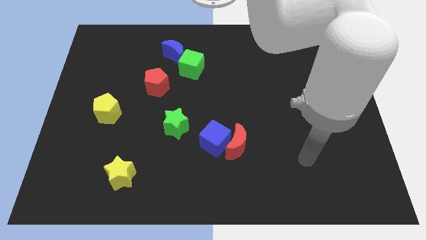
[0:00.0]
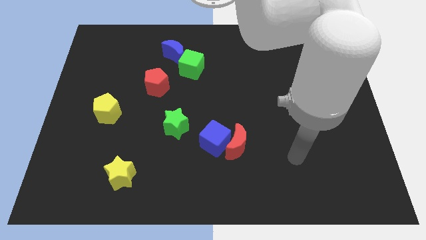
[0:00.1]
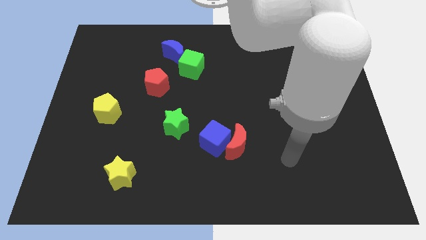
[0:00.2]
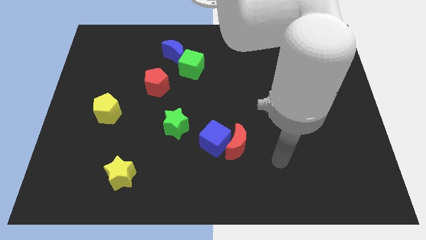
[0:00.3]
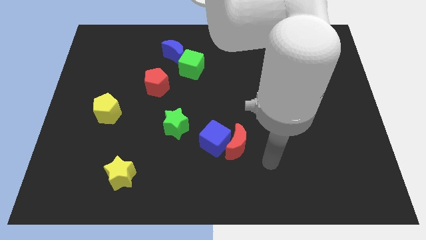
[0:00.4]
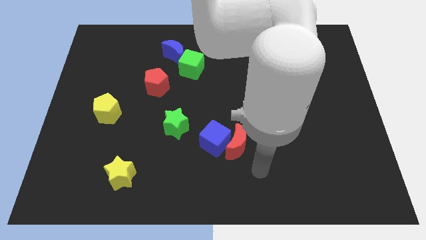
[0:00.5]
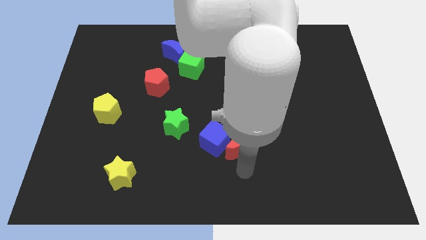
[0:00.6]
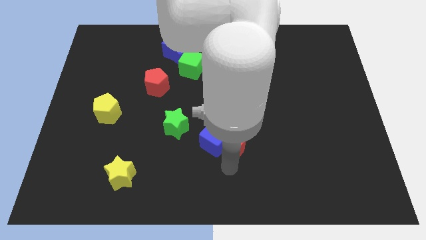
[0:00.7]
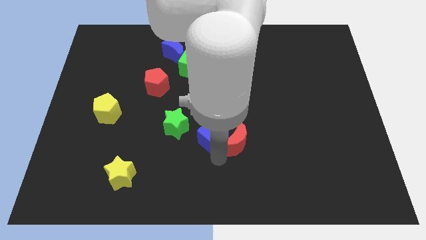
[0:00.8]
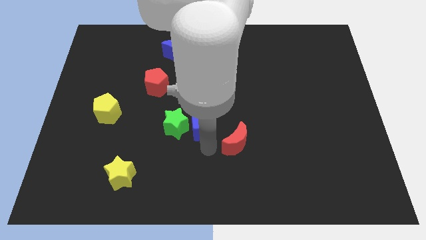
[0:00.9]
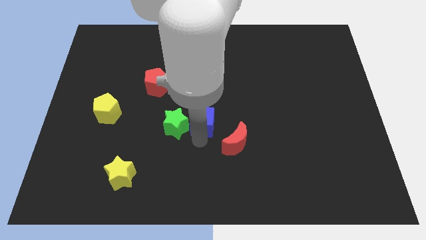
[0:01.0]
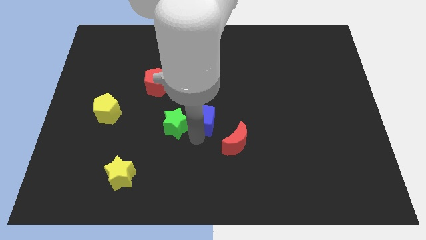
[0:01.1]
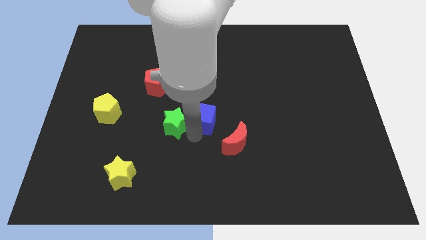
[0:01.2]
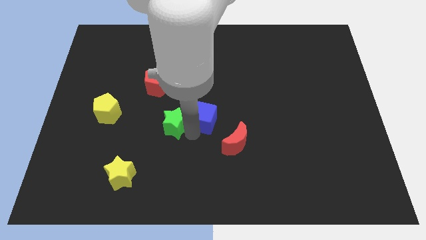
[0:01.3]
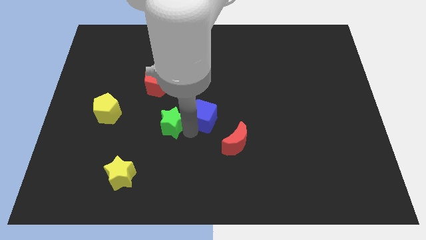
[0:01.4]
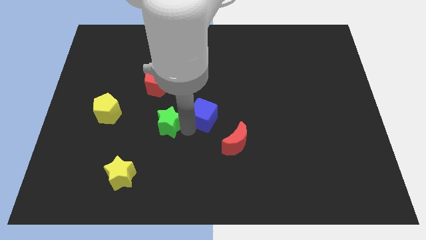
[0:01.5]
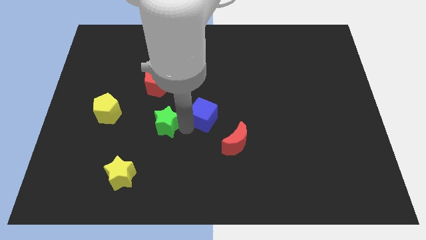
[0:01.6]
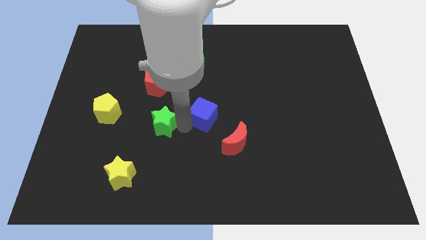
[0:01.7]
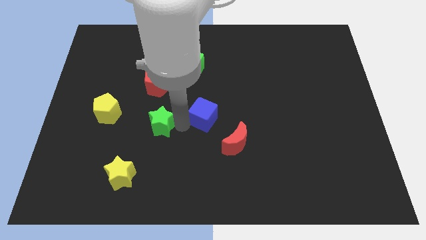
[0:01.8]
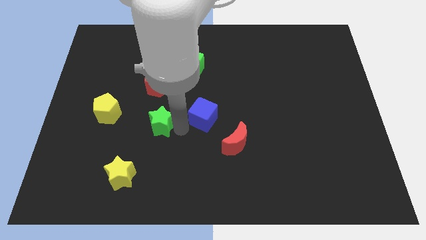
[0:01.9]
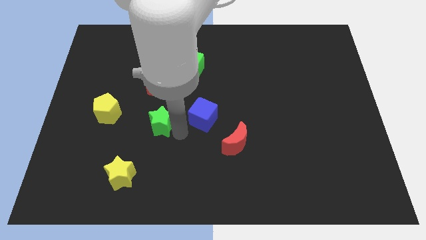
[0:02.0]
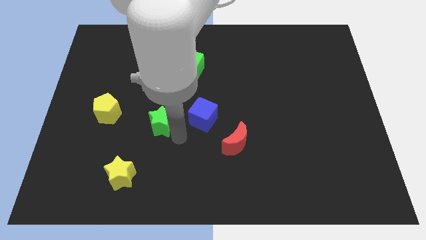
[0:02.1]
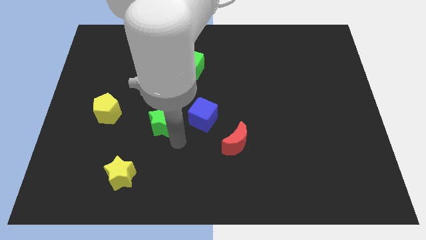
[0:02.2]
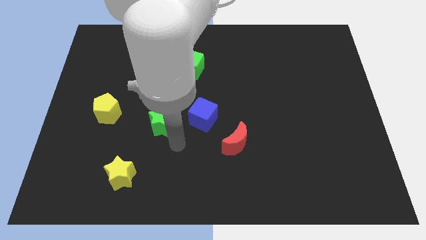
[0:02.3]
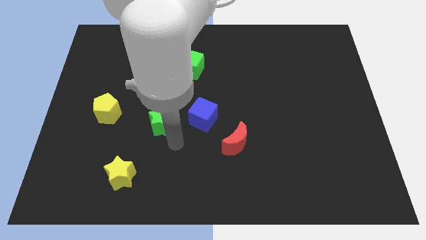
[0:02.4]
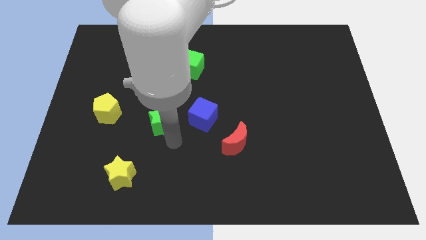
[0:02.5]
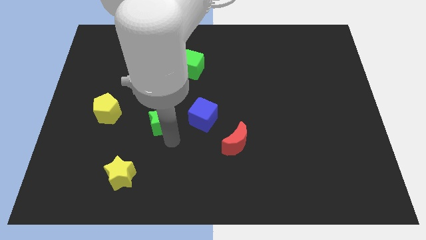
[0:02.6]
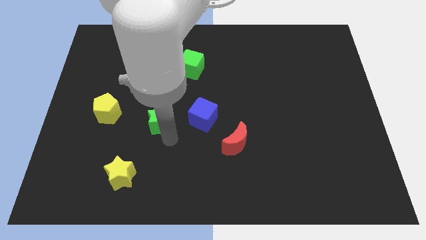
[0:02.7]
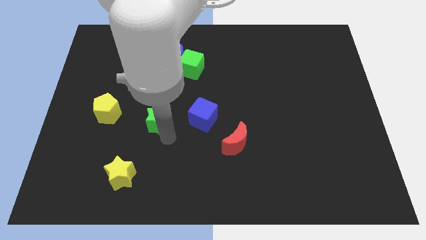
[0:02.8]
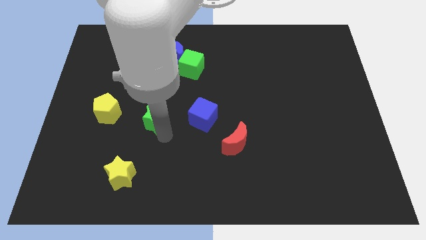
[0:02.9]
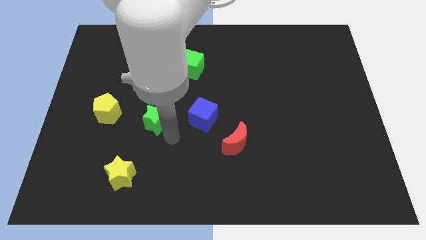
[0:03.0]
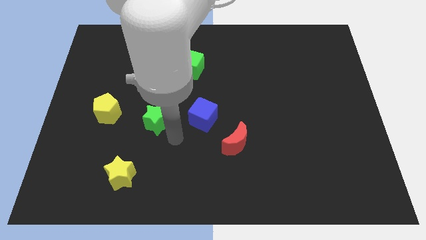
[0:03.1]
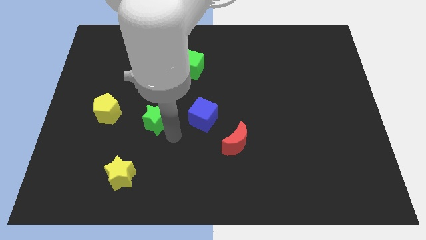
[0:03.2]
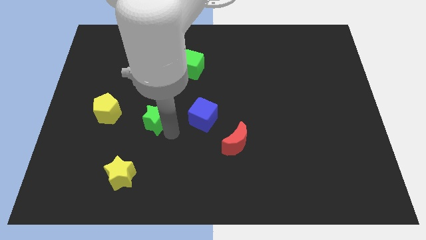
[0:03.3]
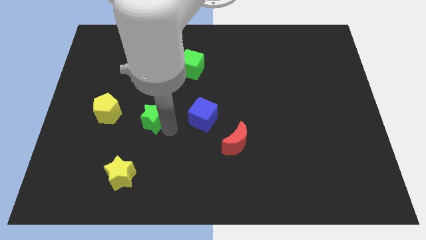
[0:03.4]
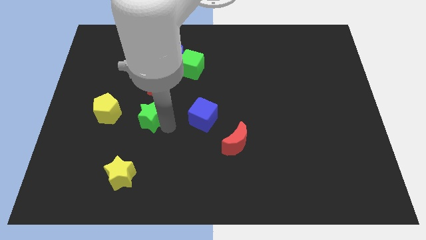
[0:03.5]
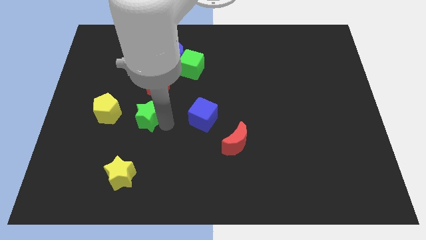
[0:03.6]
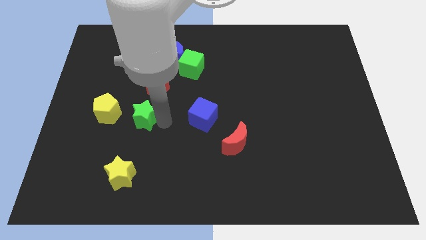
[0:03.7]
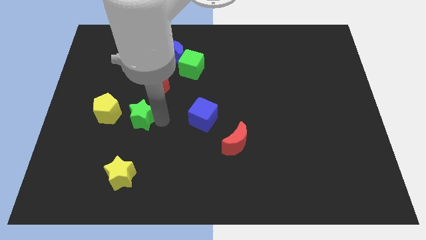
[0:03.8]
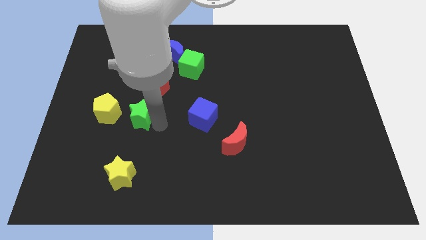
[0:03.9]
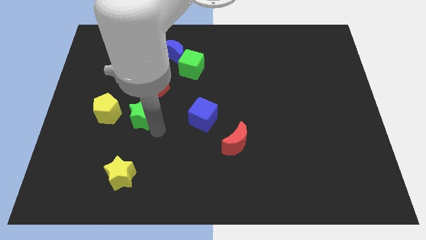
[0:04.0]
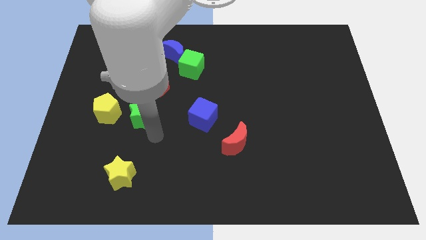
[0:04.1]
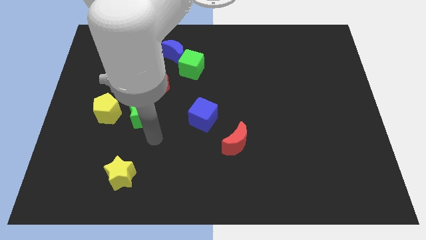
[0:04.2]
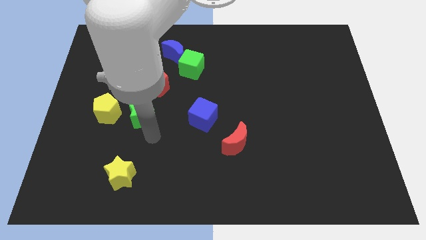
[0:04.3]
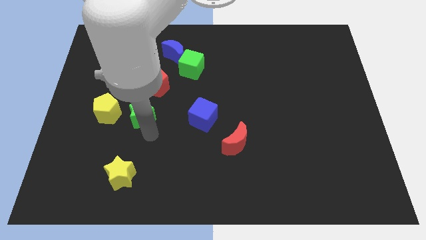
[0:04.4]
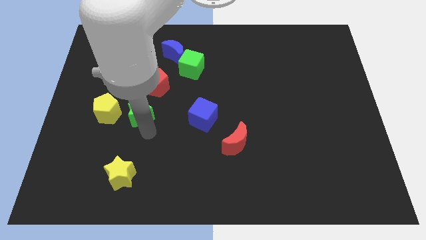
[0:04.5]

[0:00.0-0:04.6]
slide the green star diagonally down and to the left of the red pentagon

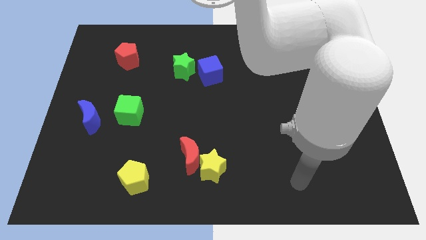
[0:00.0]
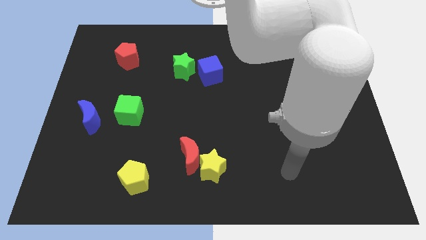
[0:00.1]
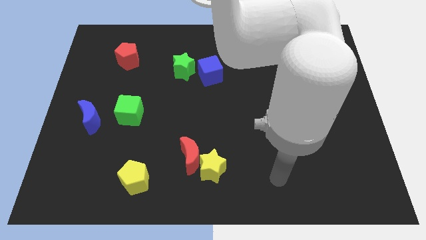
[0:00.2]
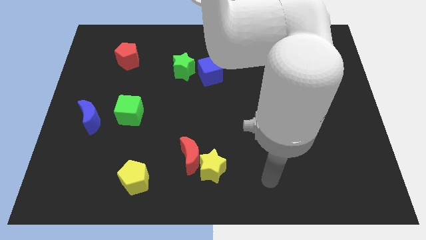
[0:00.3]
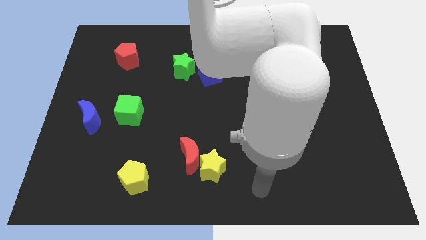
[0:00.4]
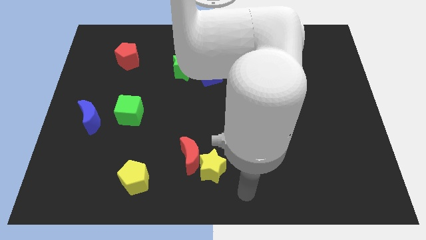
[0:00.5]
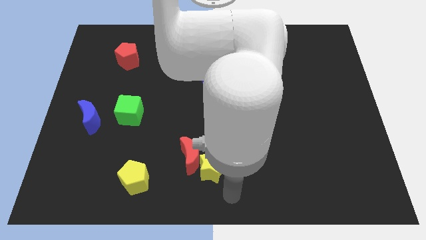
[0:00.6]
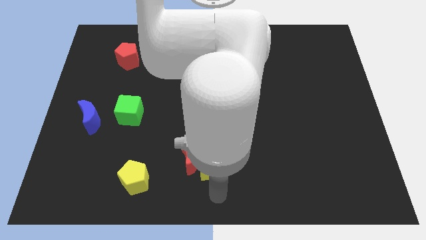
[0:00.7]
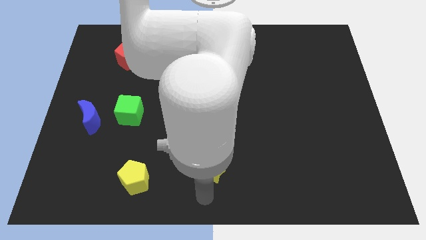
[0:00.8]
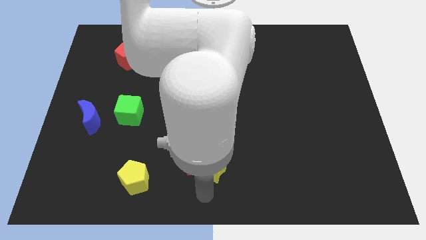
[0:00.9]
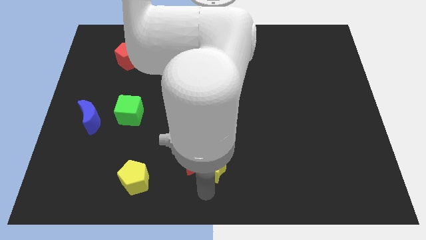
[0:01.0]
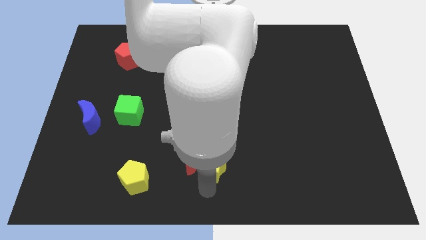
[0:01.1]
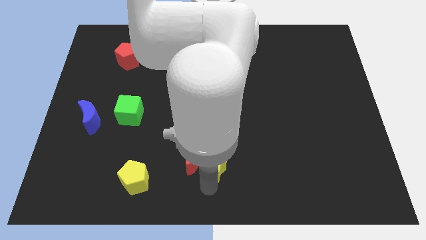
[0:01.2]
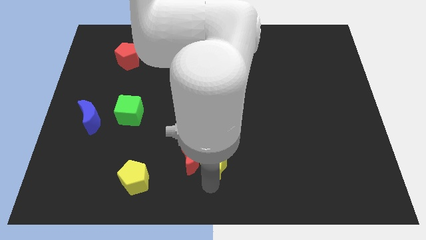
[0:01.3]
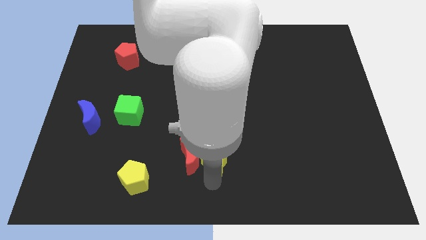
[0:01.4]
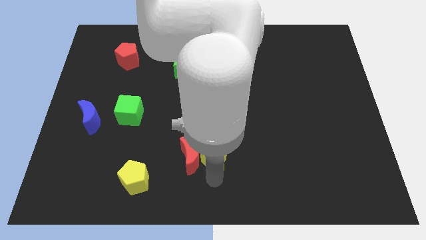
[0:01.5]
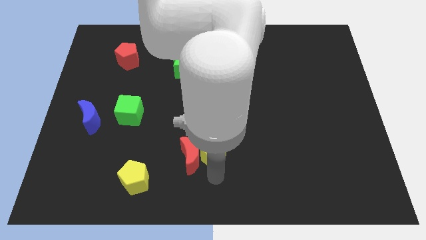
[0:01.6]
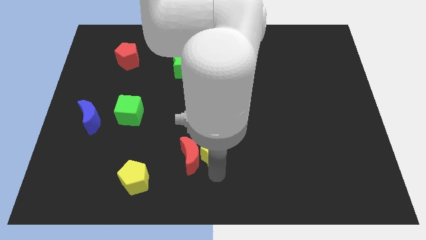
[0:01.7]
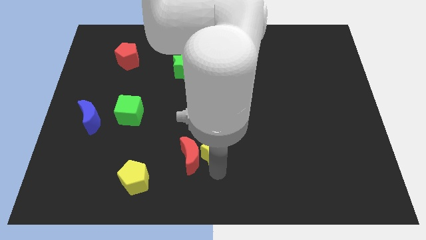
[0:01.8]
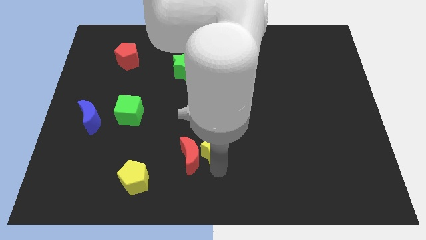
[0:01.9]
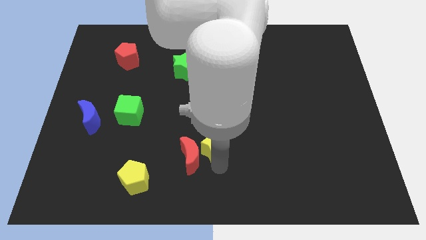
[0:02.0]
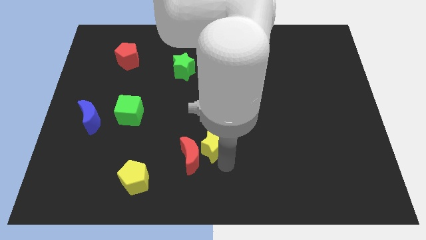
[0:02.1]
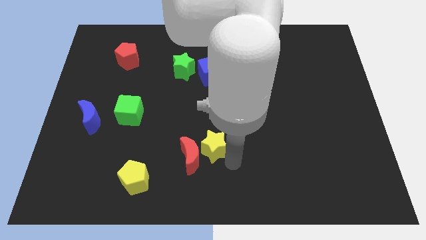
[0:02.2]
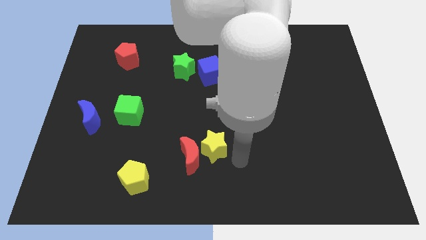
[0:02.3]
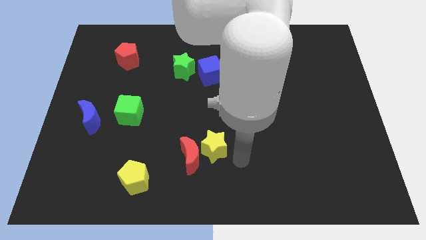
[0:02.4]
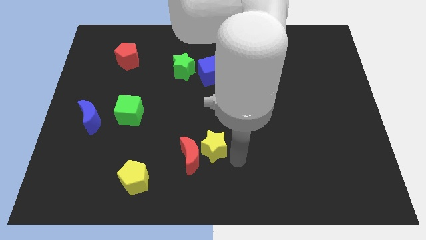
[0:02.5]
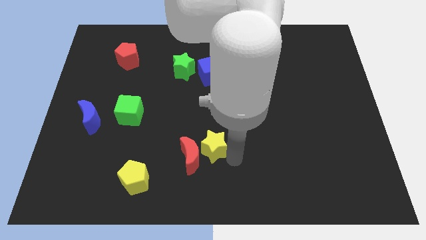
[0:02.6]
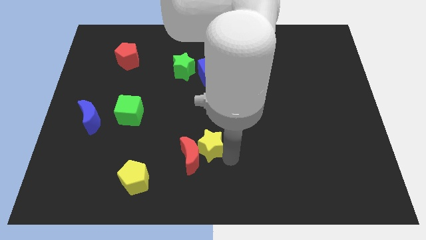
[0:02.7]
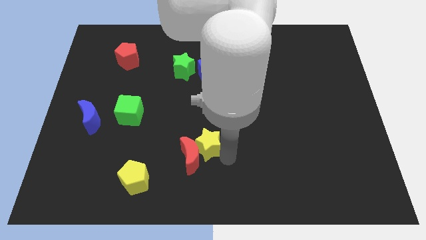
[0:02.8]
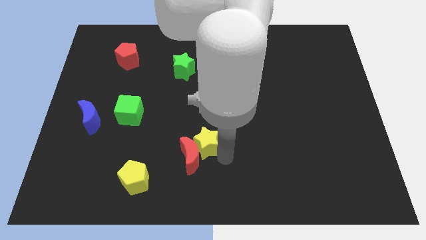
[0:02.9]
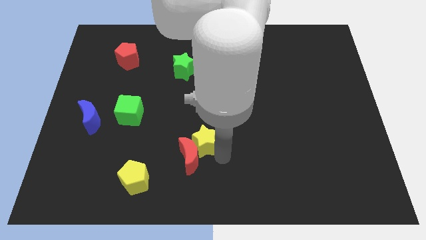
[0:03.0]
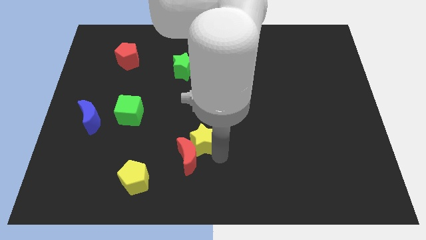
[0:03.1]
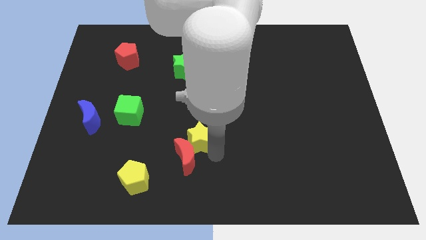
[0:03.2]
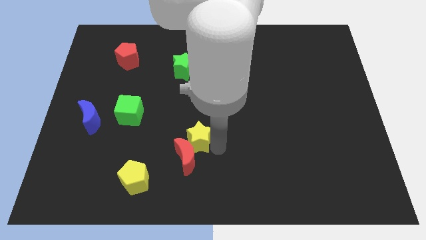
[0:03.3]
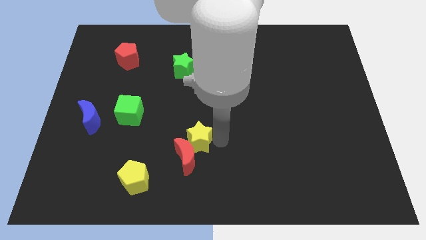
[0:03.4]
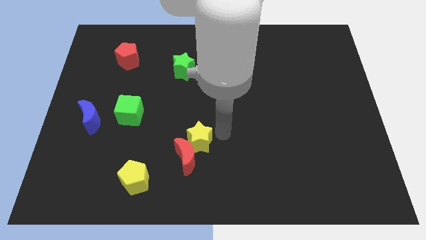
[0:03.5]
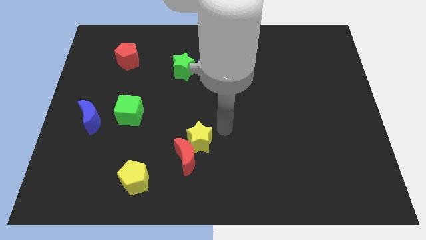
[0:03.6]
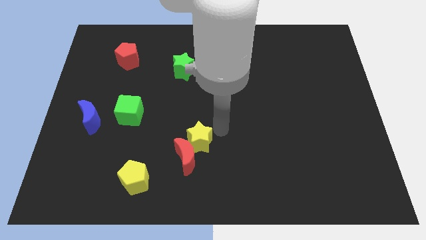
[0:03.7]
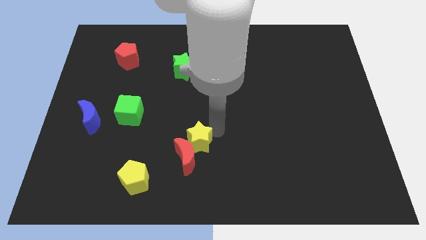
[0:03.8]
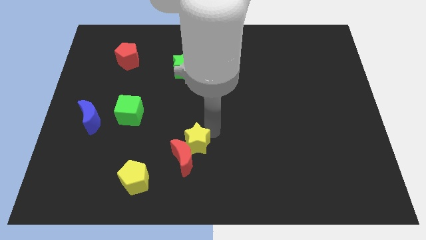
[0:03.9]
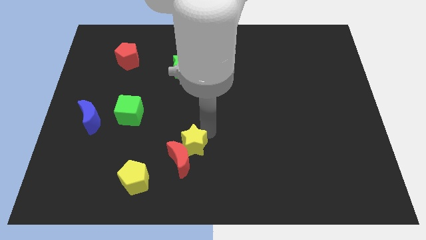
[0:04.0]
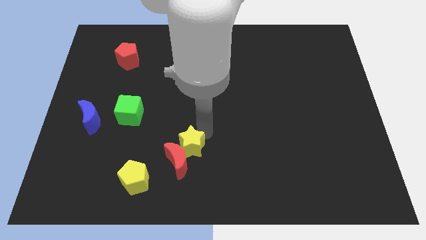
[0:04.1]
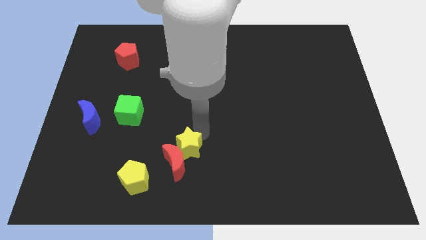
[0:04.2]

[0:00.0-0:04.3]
move the yellow star to the top right side of the yellow pentagon
